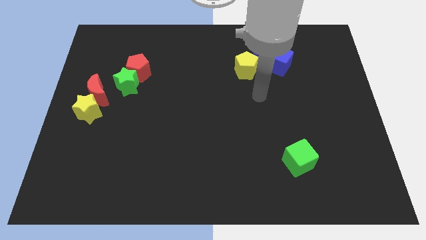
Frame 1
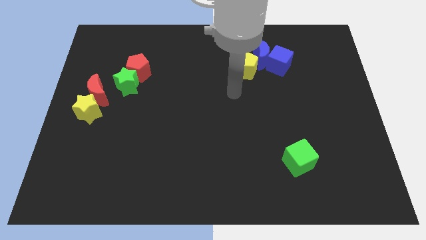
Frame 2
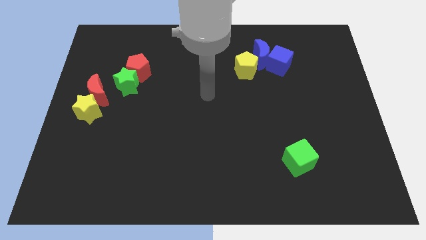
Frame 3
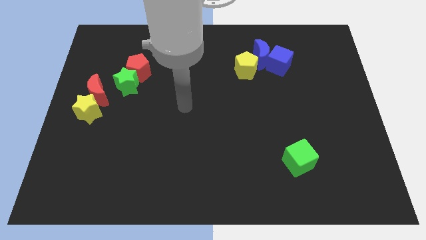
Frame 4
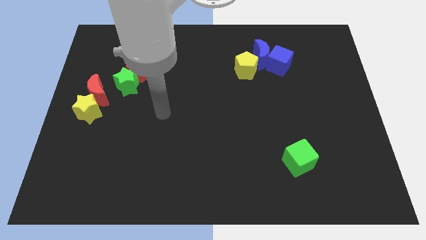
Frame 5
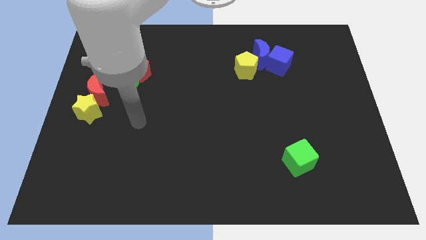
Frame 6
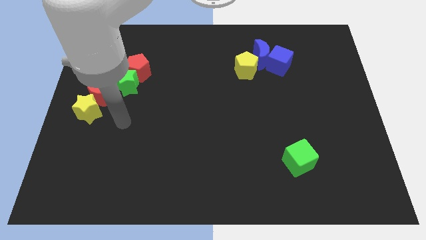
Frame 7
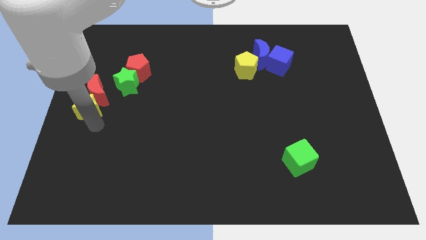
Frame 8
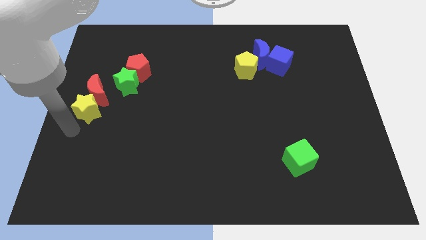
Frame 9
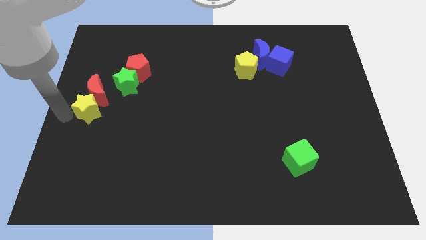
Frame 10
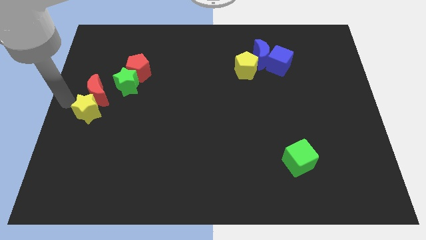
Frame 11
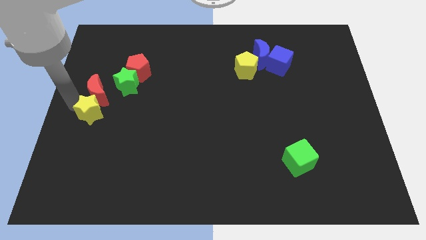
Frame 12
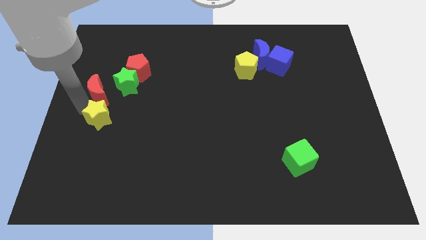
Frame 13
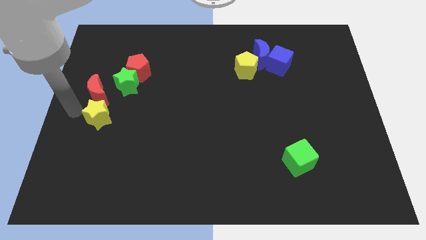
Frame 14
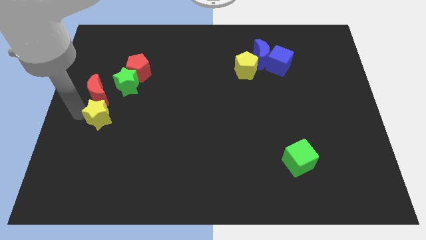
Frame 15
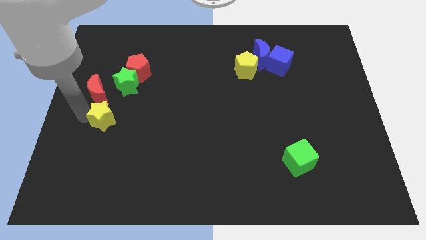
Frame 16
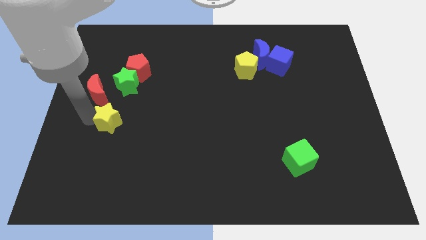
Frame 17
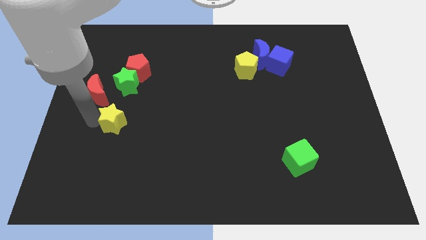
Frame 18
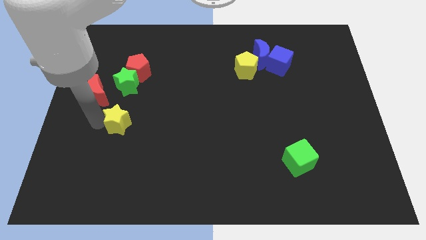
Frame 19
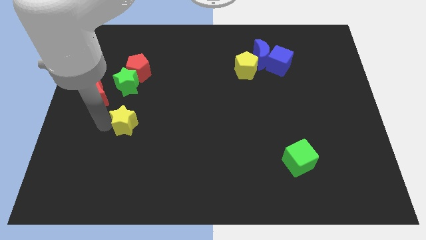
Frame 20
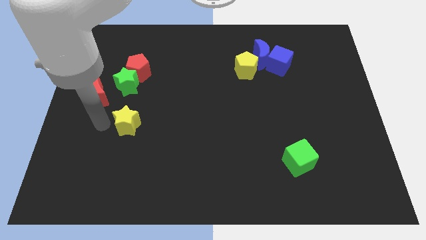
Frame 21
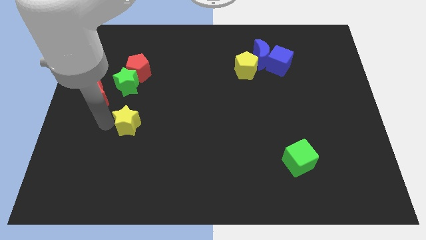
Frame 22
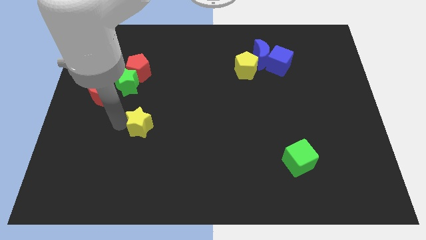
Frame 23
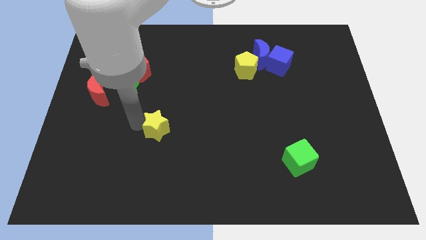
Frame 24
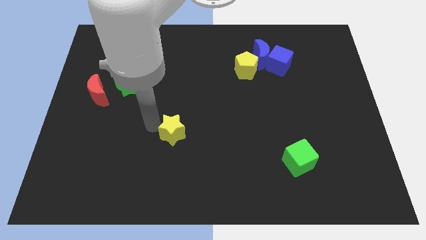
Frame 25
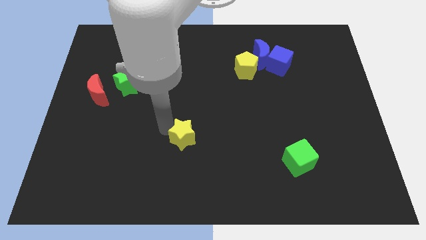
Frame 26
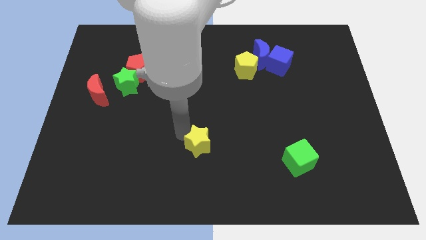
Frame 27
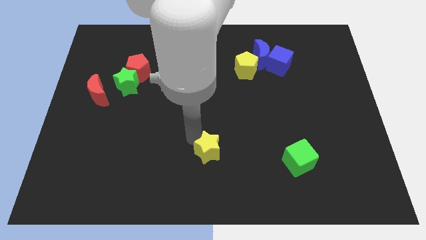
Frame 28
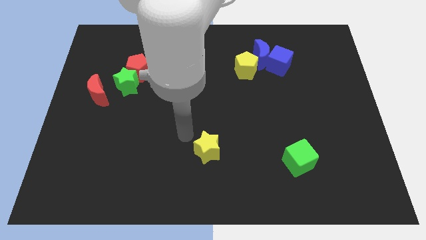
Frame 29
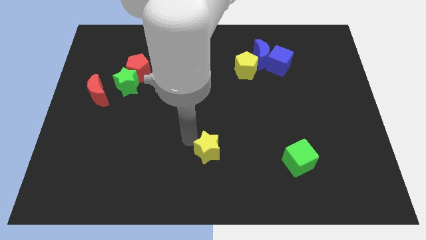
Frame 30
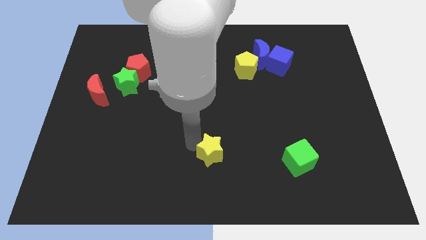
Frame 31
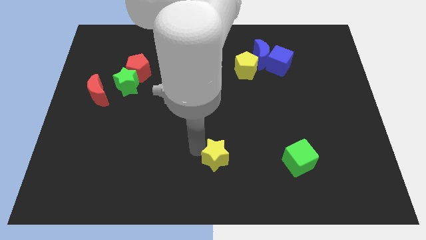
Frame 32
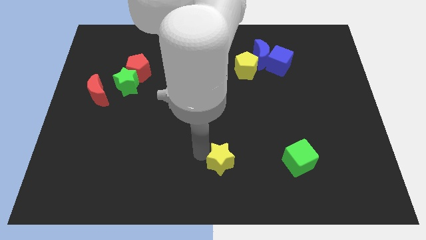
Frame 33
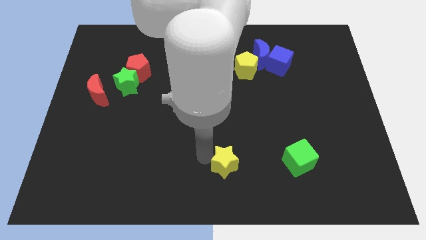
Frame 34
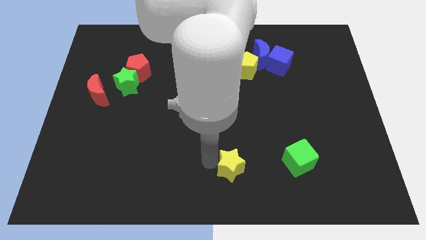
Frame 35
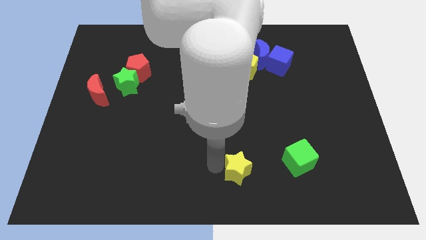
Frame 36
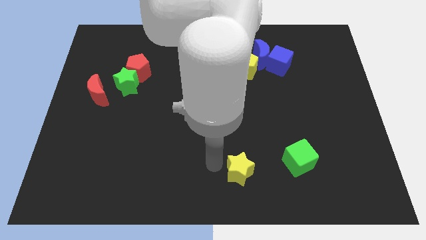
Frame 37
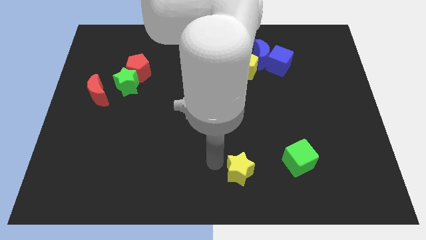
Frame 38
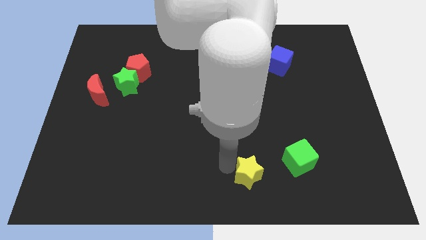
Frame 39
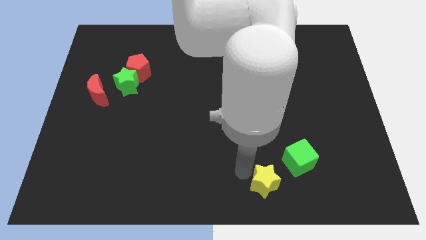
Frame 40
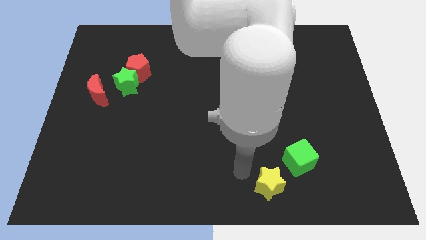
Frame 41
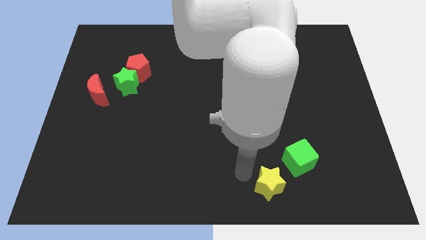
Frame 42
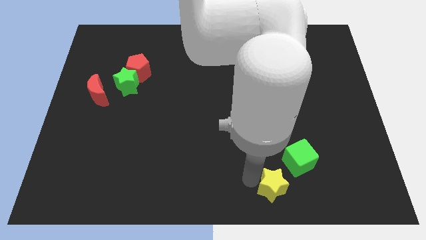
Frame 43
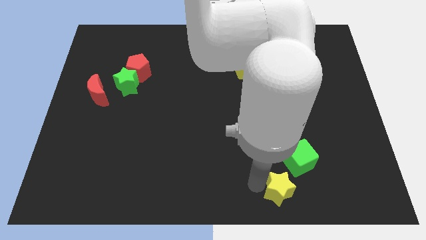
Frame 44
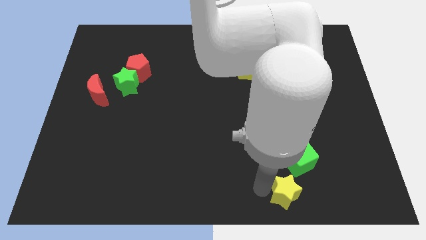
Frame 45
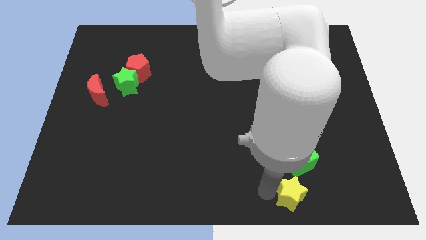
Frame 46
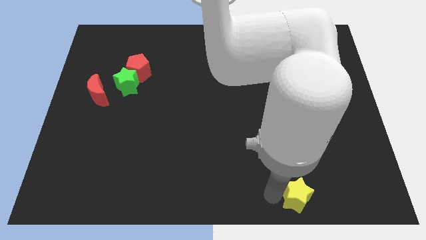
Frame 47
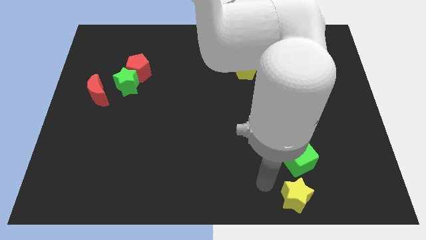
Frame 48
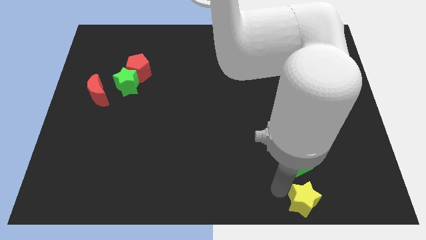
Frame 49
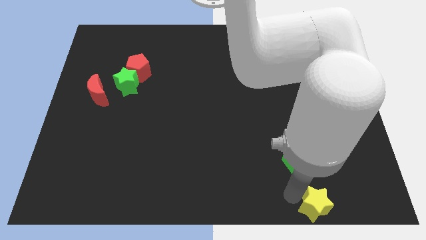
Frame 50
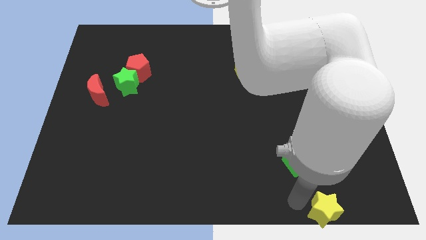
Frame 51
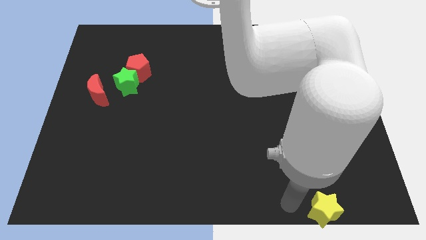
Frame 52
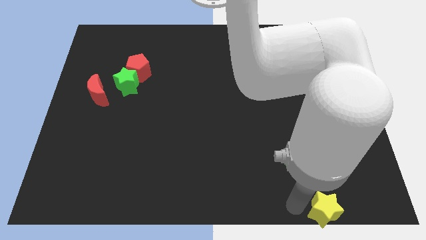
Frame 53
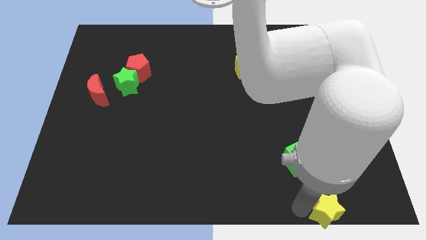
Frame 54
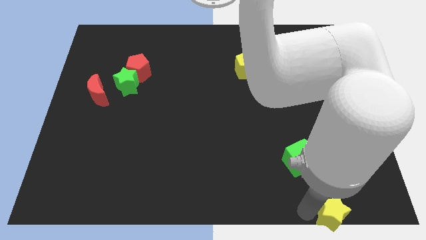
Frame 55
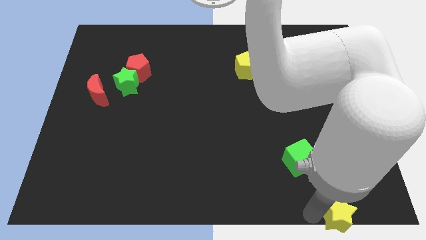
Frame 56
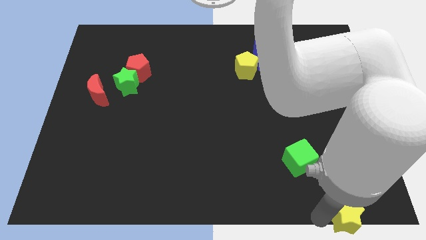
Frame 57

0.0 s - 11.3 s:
move the yellow star to the lower right corner

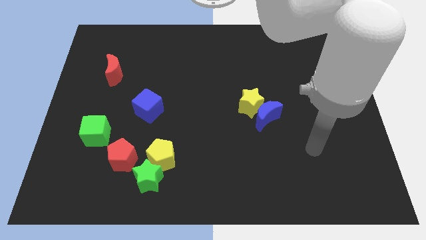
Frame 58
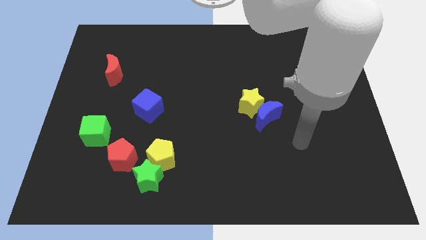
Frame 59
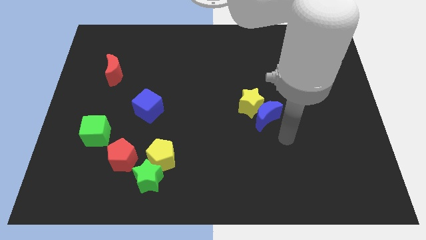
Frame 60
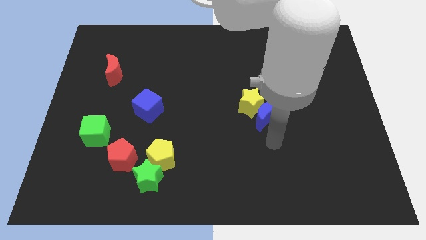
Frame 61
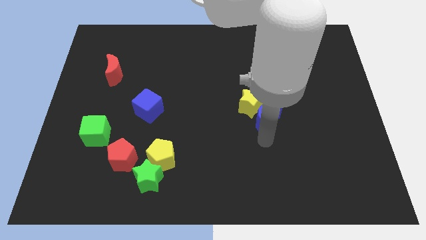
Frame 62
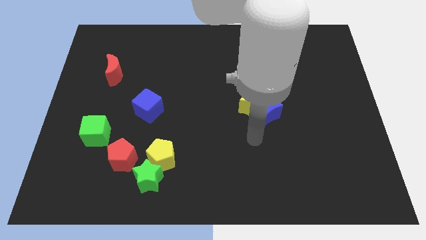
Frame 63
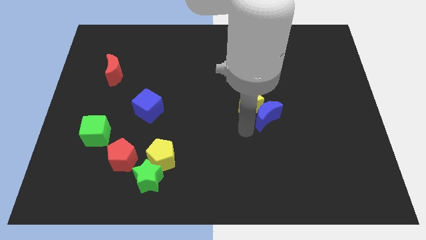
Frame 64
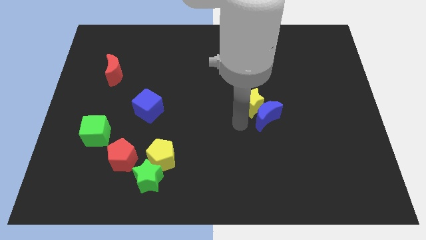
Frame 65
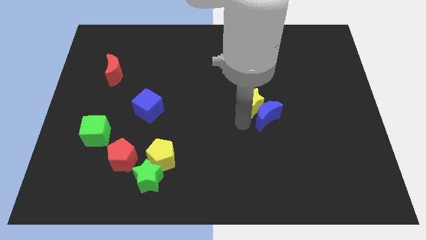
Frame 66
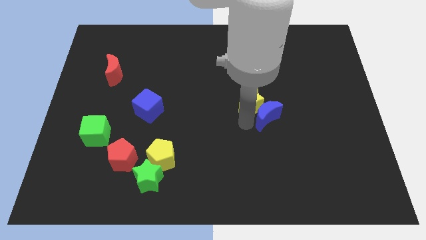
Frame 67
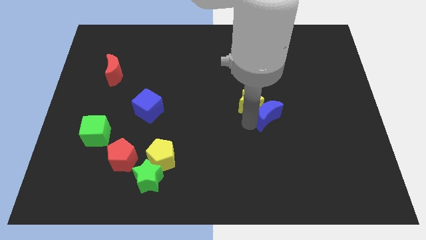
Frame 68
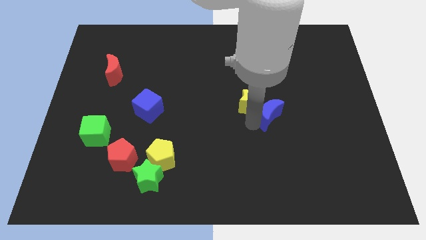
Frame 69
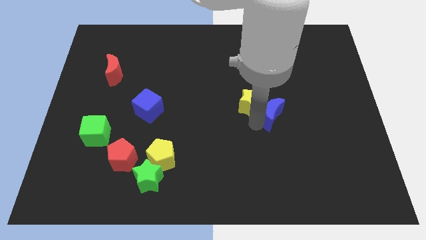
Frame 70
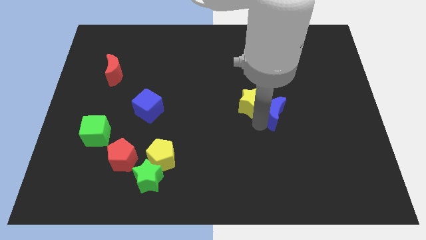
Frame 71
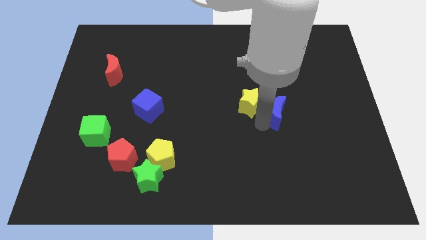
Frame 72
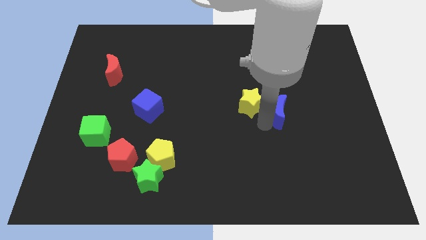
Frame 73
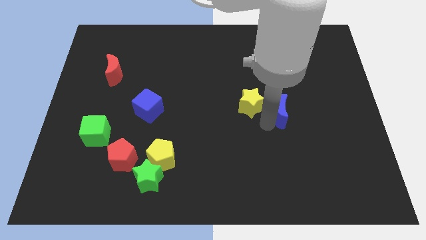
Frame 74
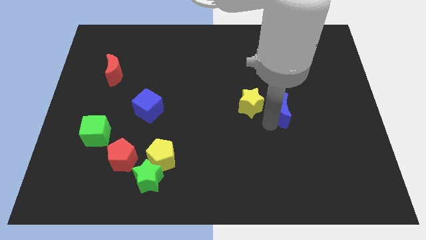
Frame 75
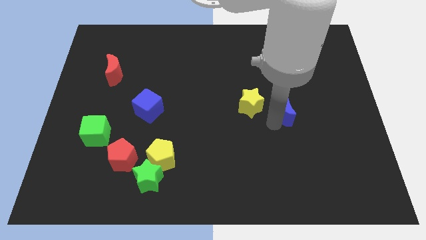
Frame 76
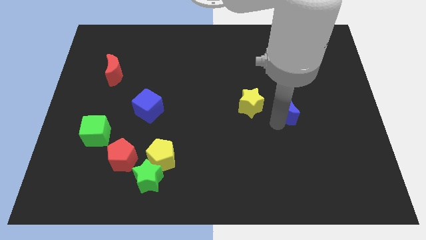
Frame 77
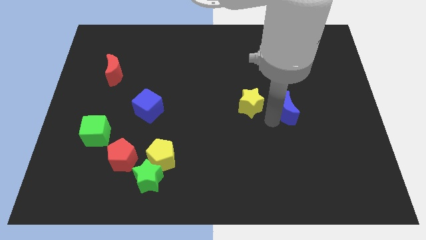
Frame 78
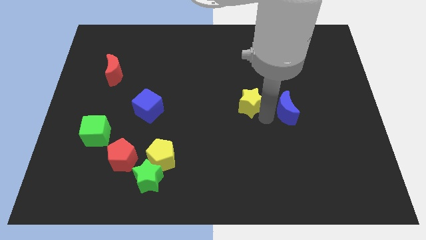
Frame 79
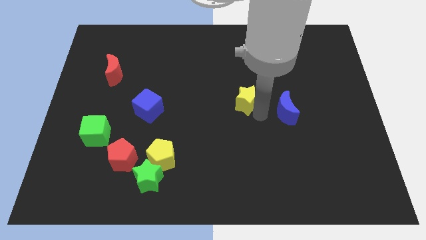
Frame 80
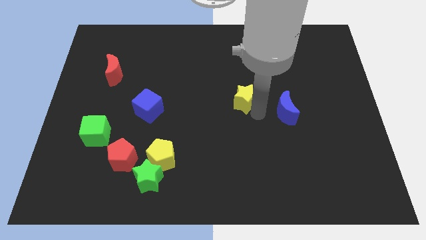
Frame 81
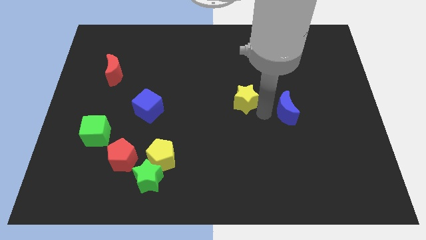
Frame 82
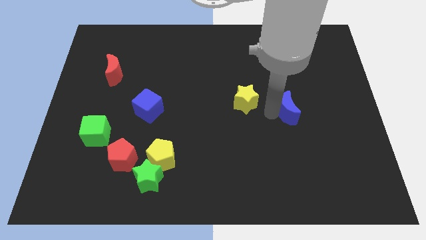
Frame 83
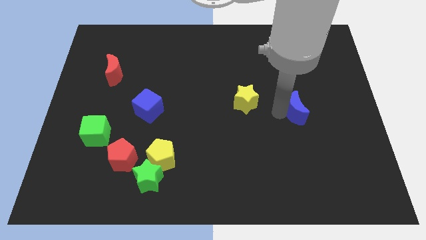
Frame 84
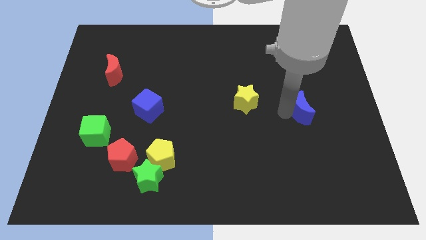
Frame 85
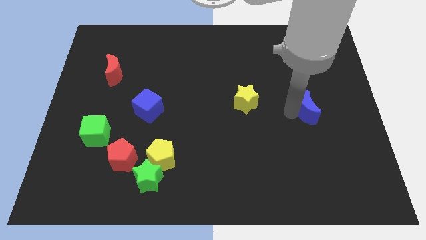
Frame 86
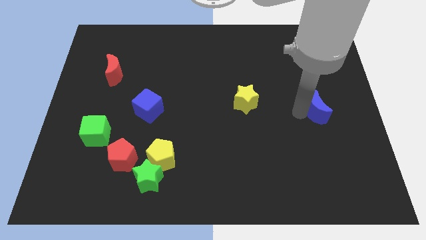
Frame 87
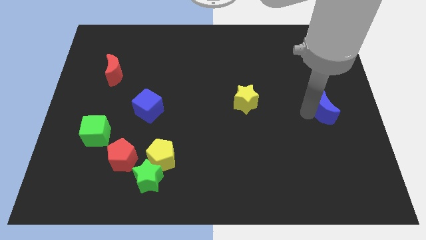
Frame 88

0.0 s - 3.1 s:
move the blue moon to the right side
